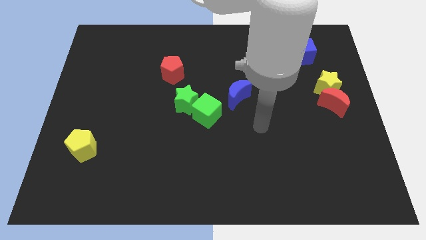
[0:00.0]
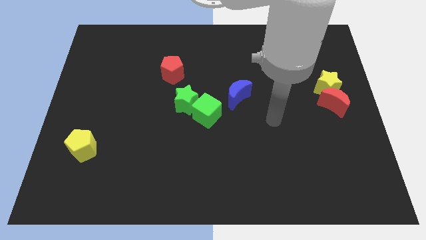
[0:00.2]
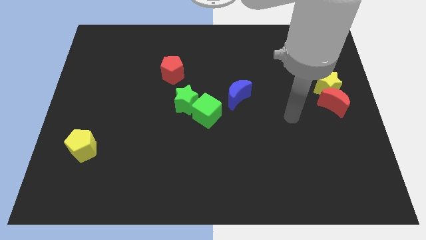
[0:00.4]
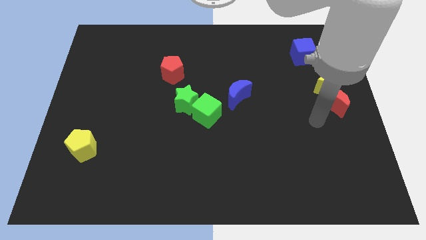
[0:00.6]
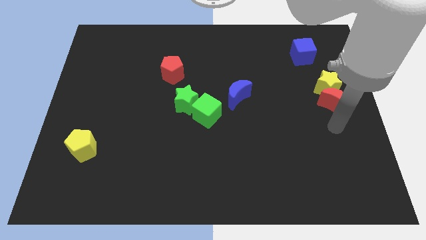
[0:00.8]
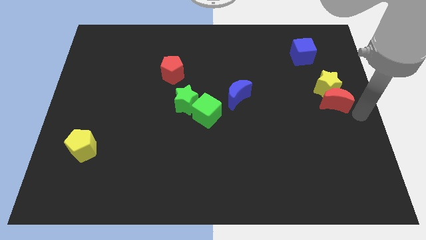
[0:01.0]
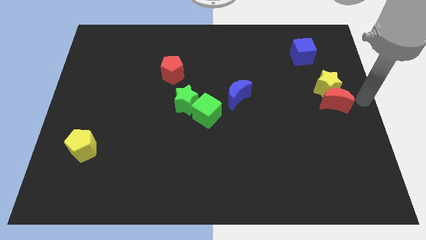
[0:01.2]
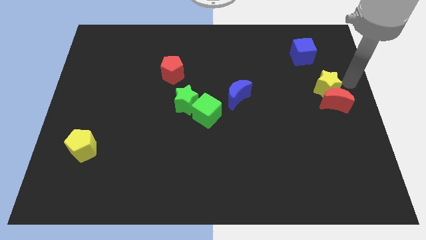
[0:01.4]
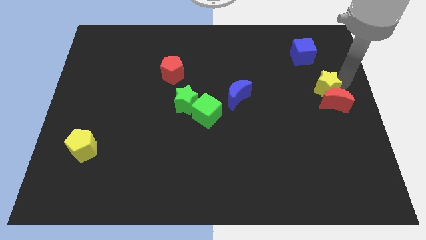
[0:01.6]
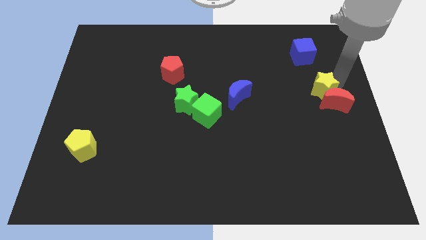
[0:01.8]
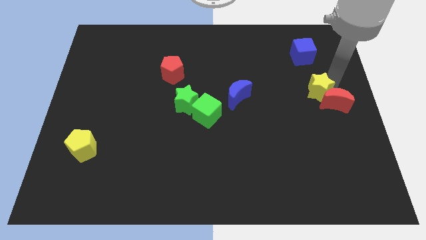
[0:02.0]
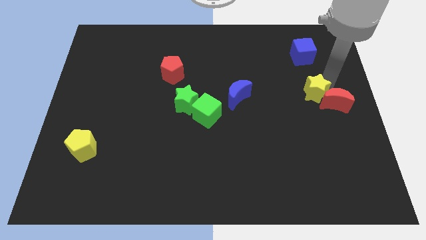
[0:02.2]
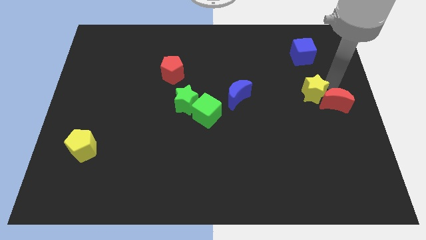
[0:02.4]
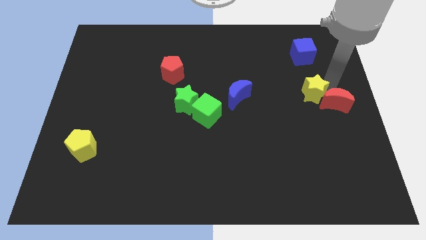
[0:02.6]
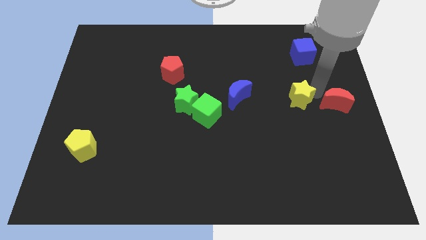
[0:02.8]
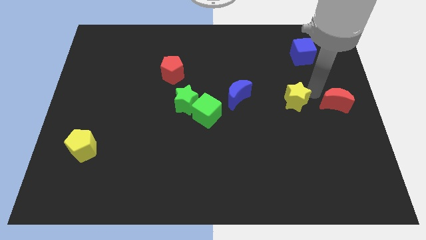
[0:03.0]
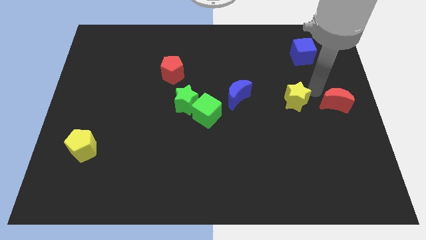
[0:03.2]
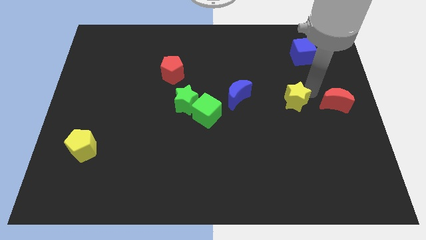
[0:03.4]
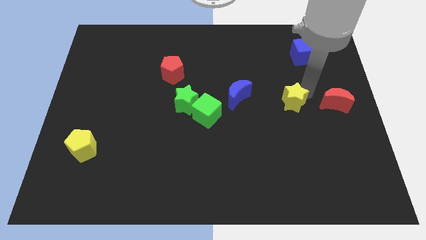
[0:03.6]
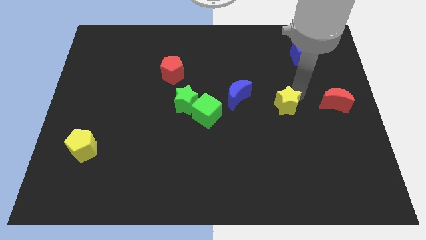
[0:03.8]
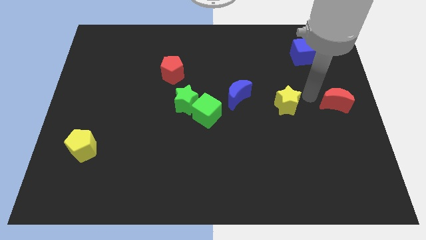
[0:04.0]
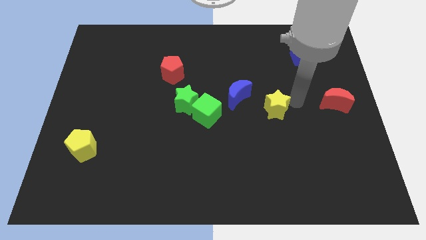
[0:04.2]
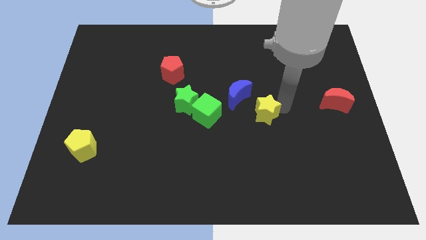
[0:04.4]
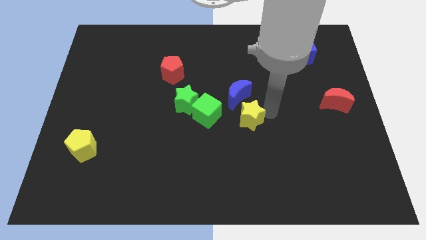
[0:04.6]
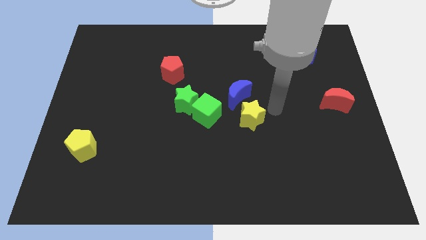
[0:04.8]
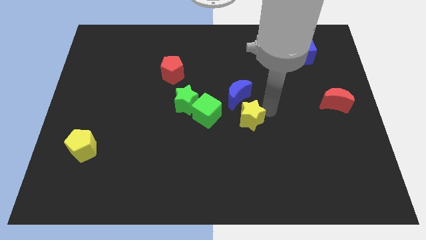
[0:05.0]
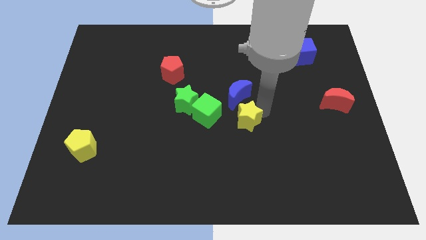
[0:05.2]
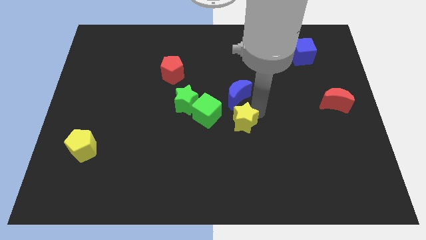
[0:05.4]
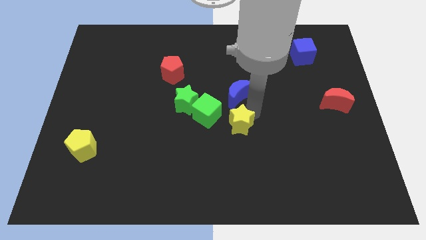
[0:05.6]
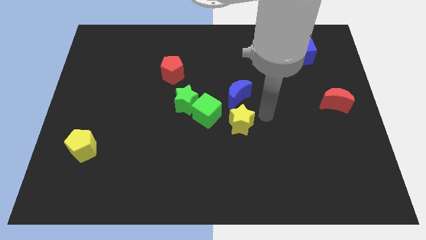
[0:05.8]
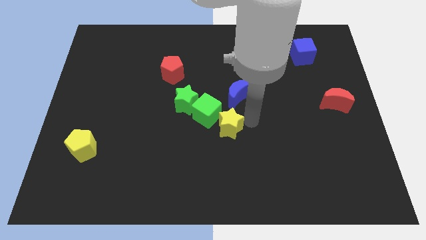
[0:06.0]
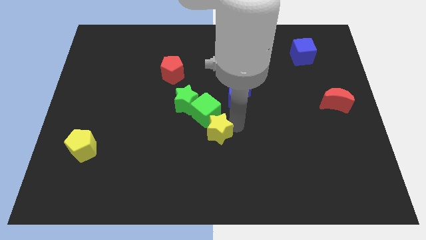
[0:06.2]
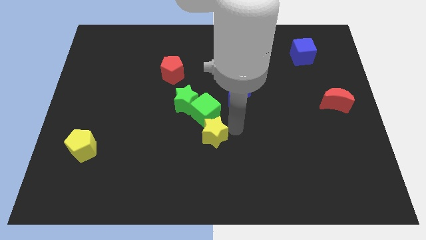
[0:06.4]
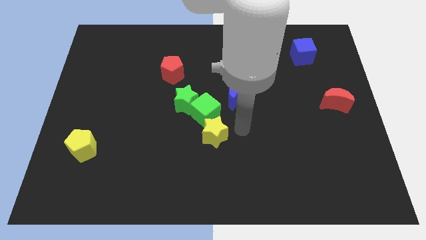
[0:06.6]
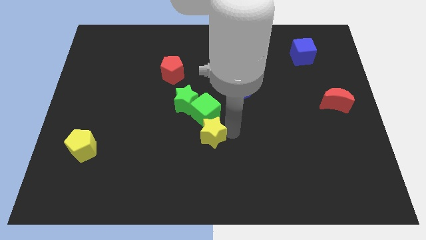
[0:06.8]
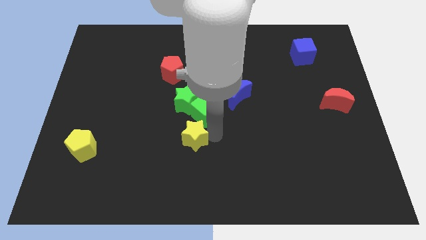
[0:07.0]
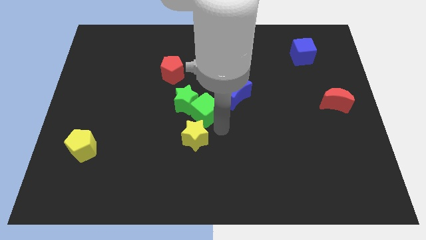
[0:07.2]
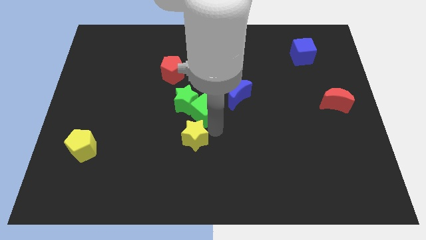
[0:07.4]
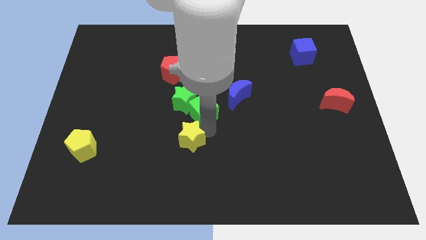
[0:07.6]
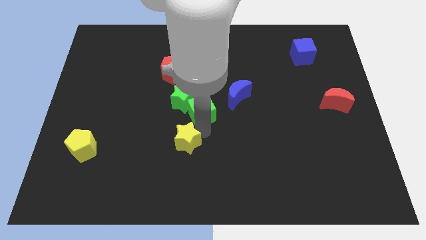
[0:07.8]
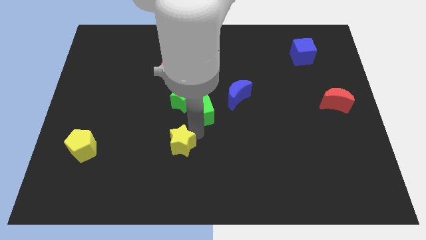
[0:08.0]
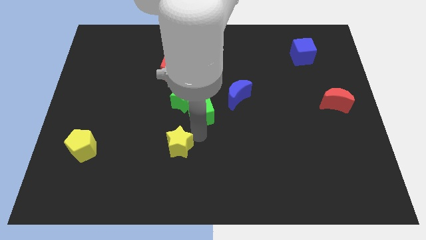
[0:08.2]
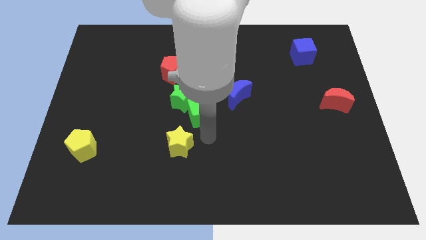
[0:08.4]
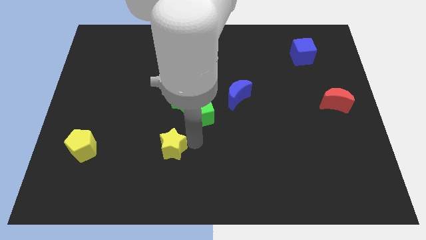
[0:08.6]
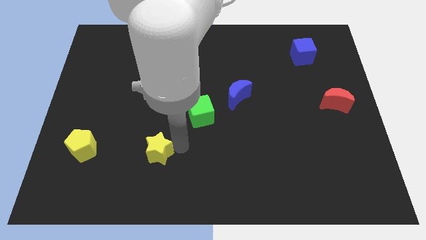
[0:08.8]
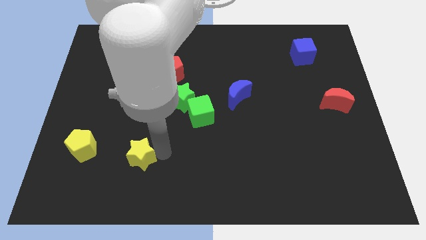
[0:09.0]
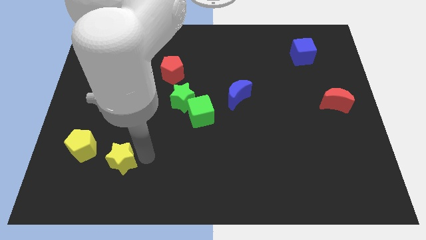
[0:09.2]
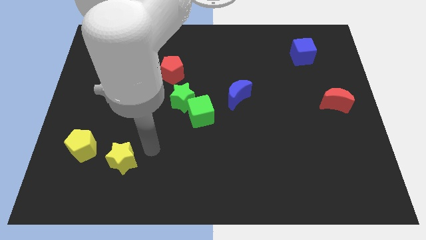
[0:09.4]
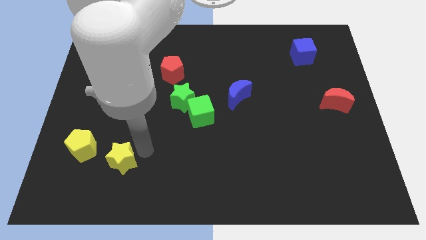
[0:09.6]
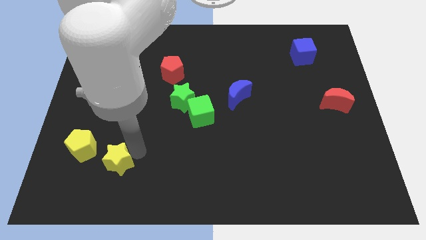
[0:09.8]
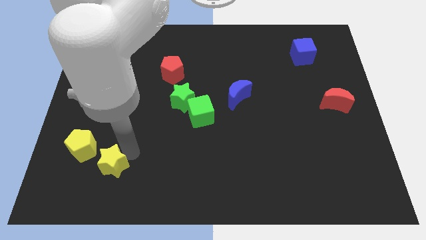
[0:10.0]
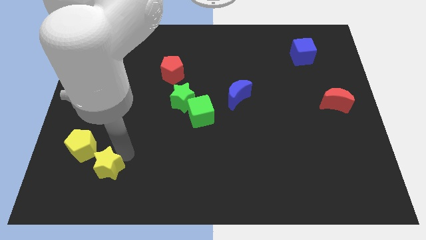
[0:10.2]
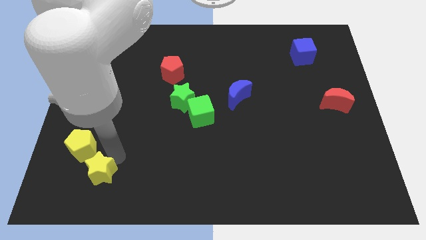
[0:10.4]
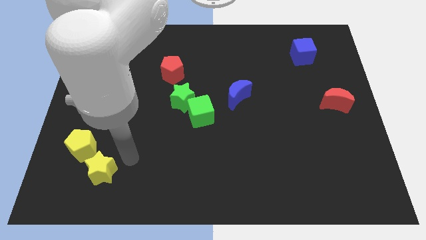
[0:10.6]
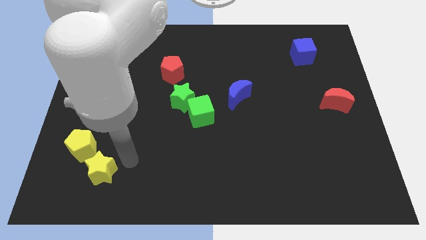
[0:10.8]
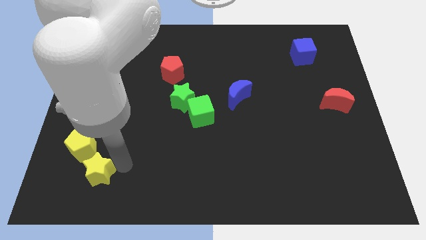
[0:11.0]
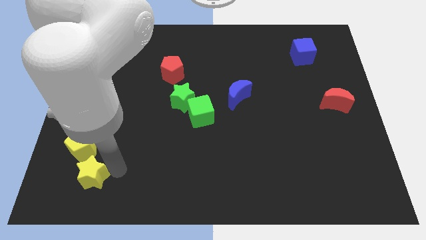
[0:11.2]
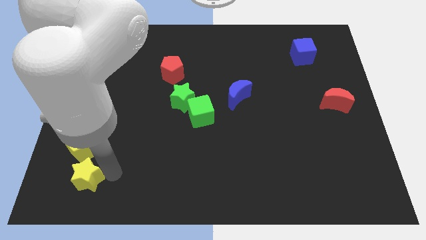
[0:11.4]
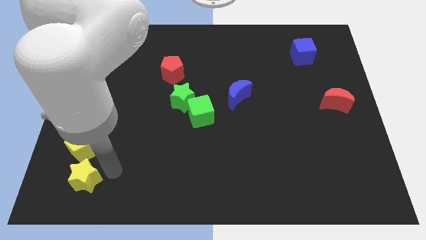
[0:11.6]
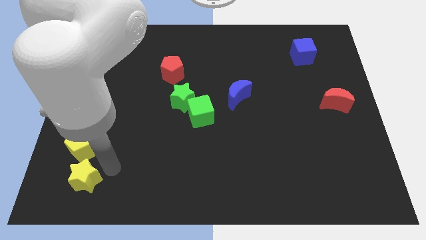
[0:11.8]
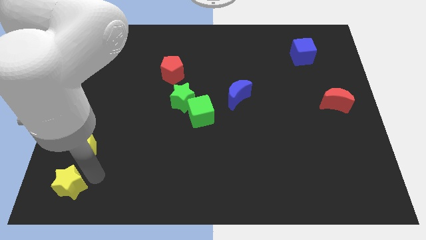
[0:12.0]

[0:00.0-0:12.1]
put the yellow star to the bottom left
